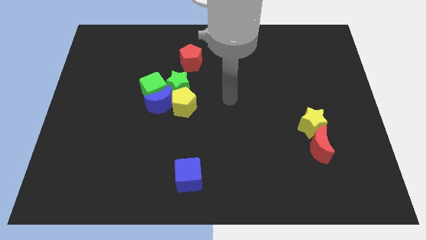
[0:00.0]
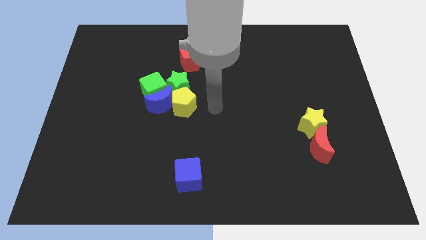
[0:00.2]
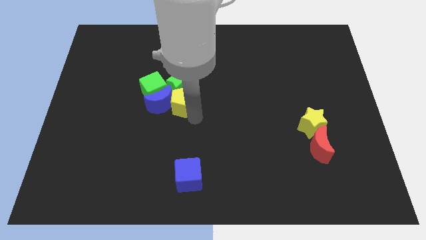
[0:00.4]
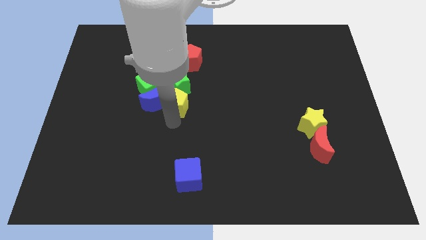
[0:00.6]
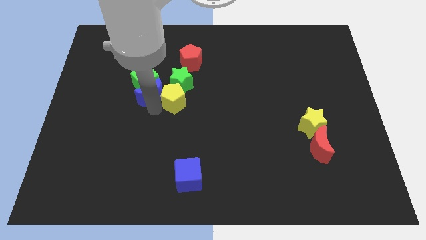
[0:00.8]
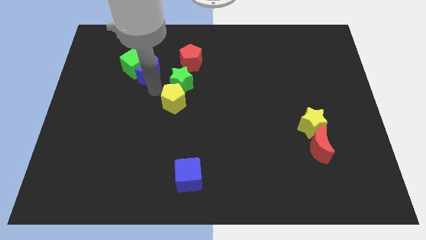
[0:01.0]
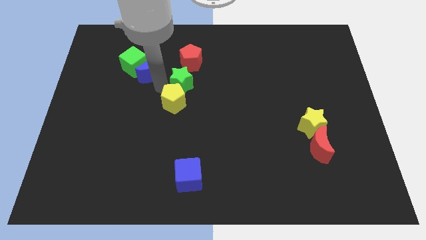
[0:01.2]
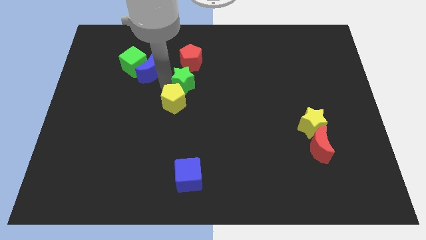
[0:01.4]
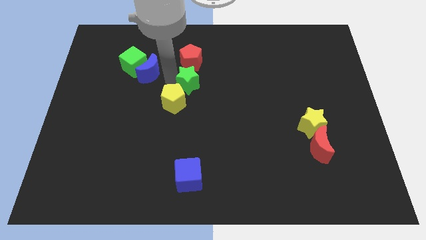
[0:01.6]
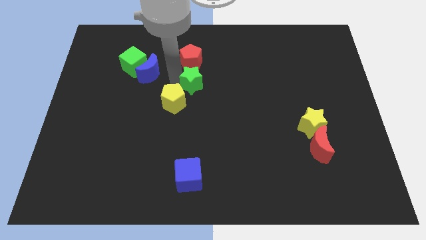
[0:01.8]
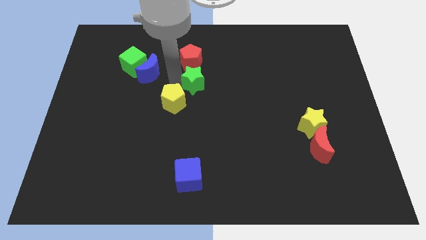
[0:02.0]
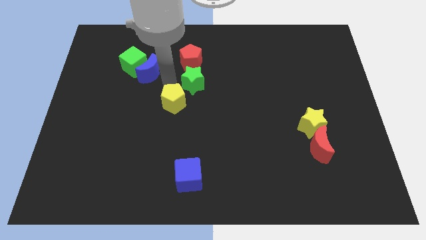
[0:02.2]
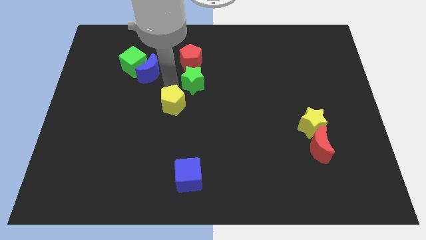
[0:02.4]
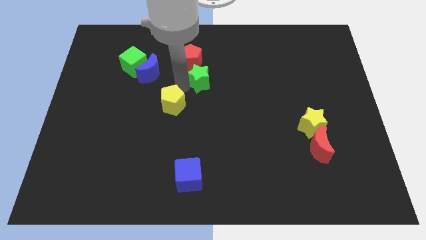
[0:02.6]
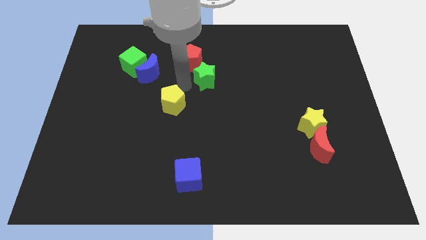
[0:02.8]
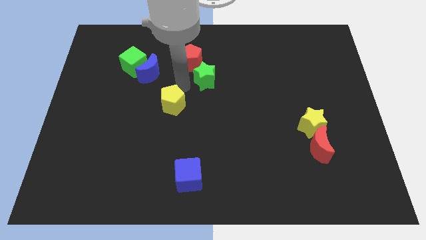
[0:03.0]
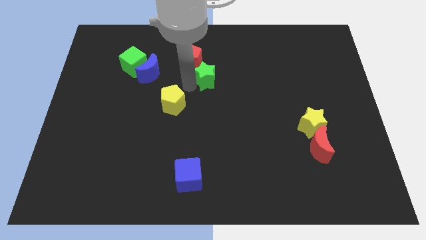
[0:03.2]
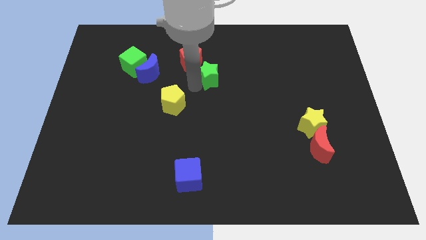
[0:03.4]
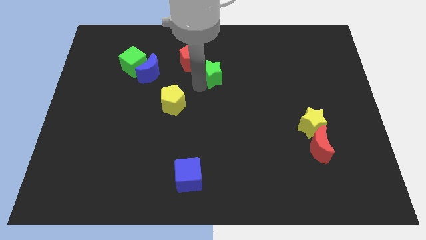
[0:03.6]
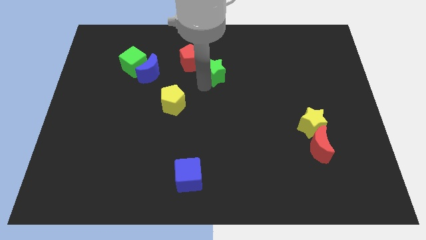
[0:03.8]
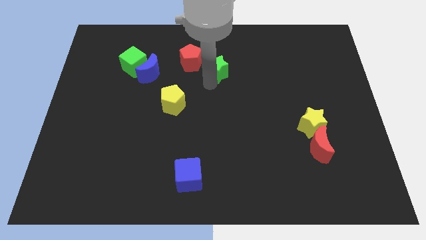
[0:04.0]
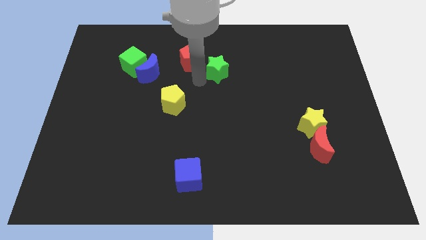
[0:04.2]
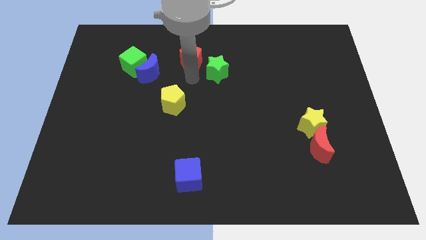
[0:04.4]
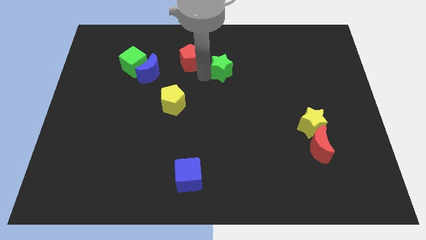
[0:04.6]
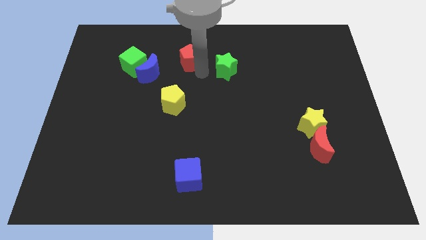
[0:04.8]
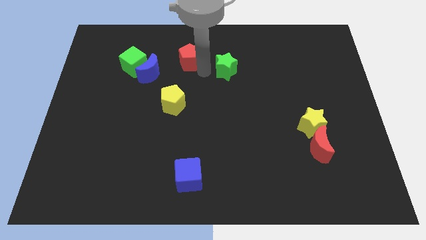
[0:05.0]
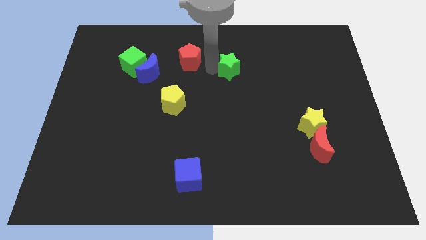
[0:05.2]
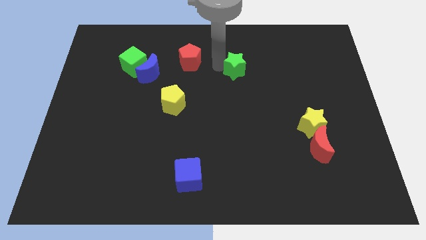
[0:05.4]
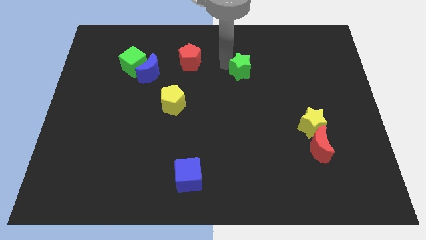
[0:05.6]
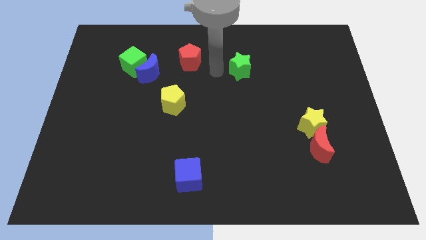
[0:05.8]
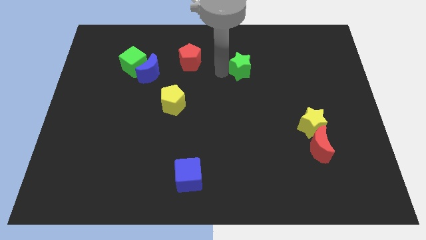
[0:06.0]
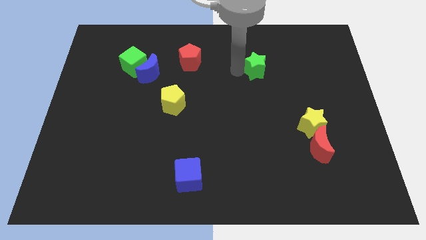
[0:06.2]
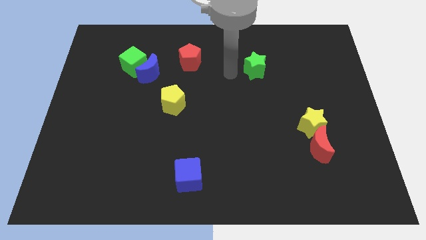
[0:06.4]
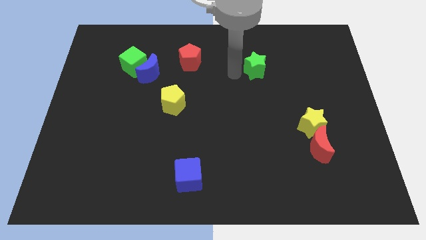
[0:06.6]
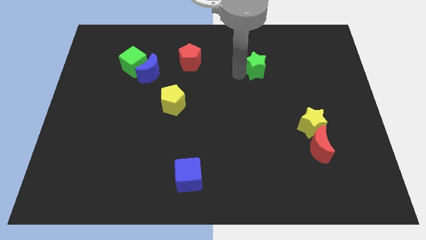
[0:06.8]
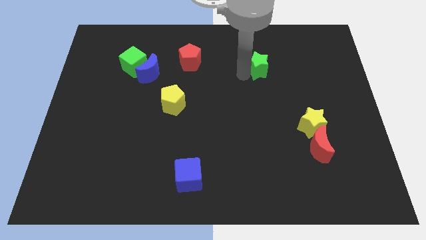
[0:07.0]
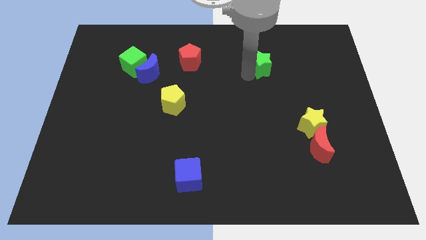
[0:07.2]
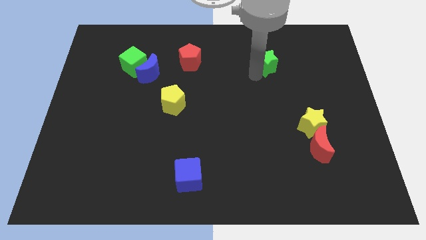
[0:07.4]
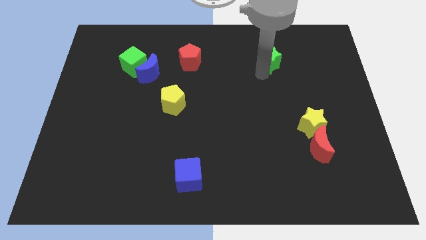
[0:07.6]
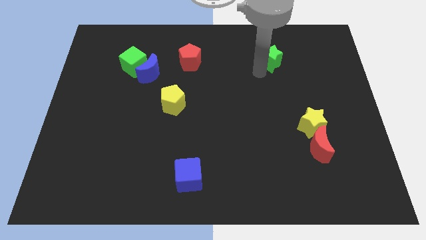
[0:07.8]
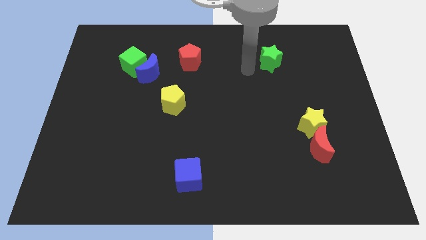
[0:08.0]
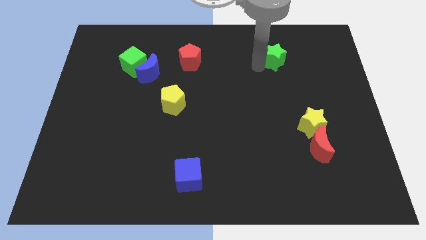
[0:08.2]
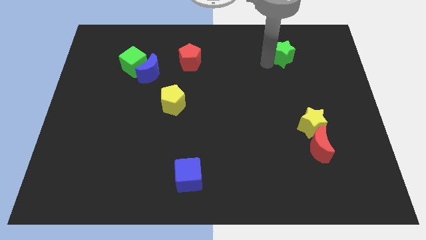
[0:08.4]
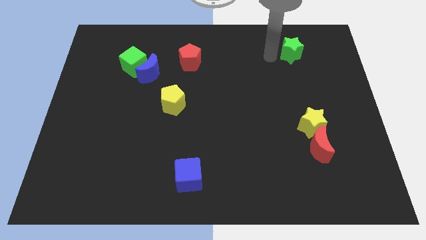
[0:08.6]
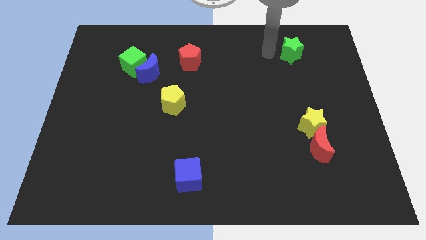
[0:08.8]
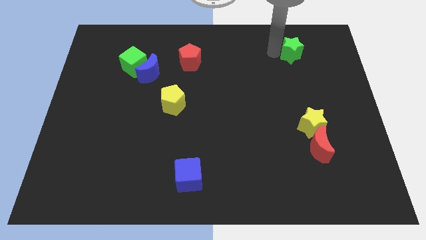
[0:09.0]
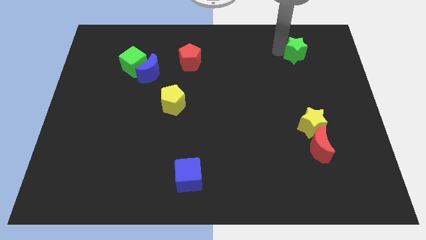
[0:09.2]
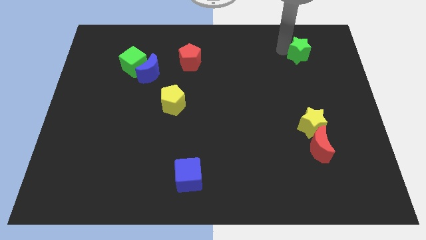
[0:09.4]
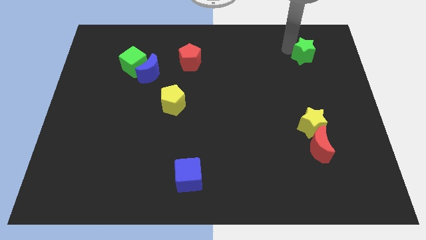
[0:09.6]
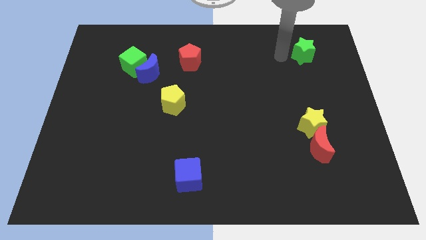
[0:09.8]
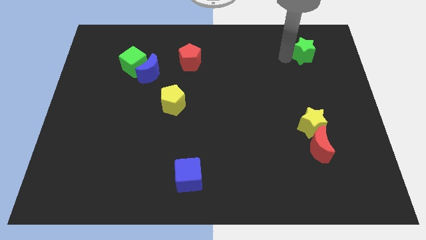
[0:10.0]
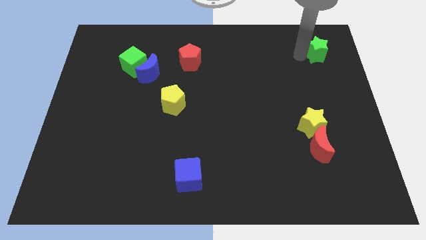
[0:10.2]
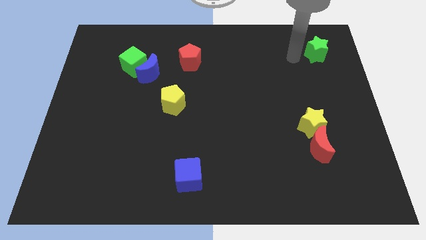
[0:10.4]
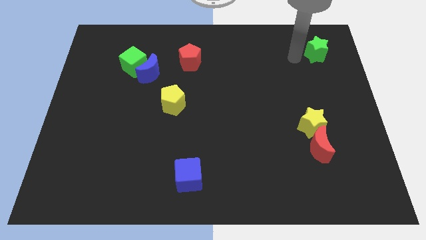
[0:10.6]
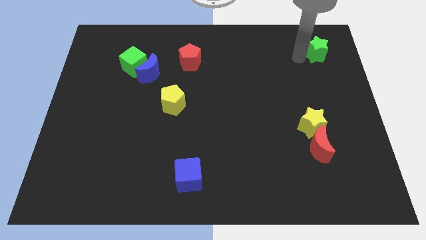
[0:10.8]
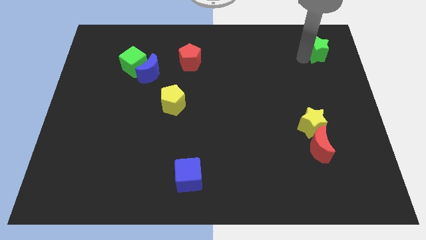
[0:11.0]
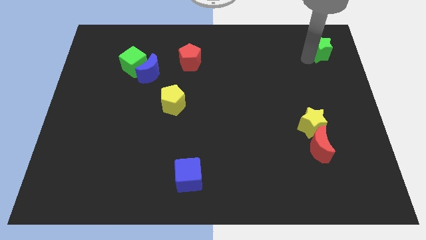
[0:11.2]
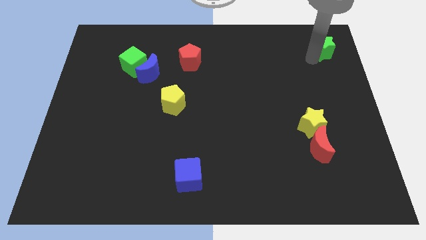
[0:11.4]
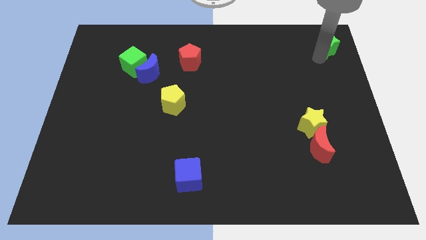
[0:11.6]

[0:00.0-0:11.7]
slide the green star to the top right

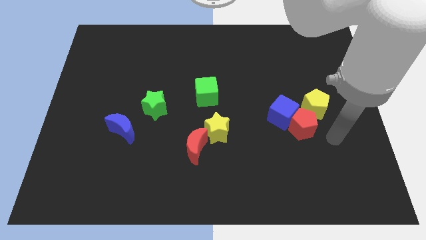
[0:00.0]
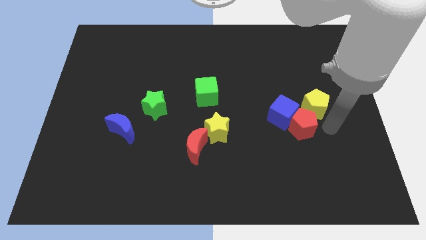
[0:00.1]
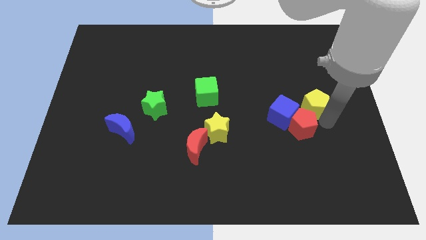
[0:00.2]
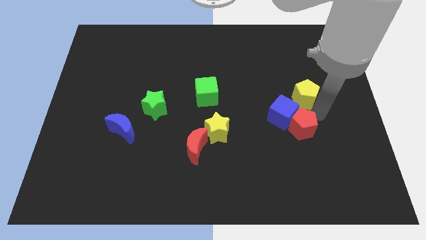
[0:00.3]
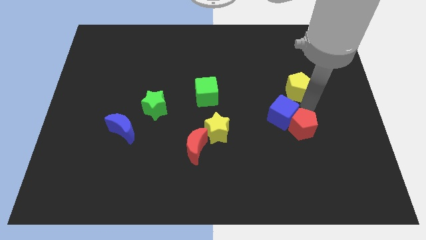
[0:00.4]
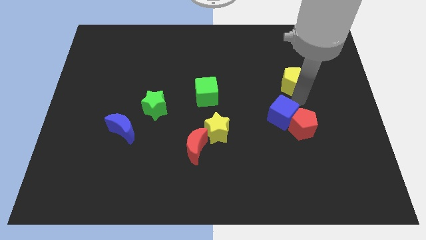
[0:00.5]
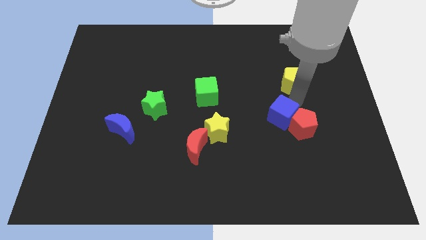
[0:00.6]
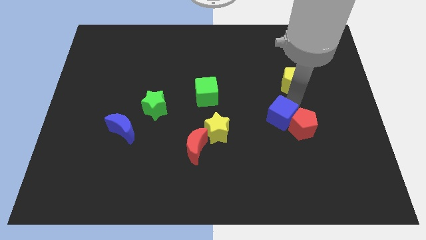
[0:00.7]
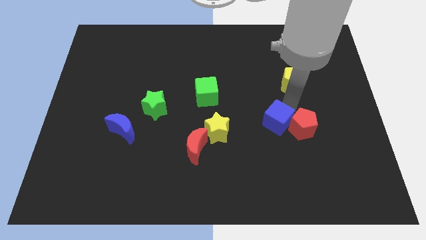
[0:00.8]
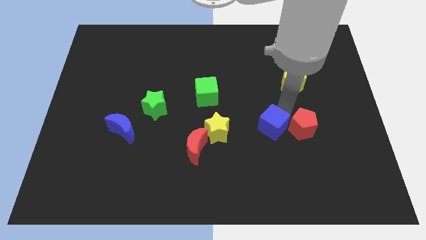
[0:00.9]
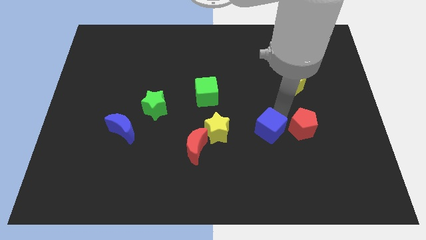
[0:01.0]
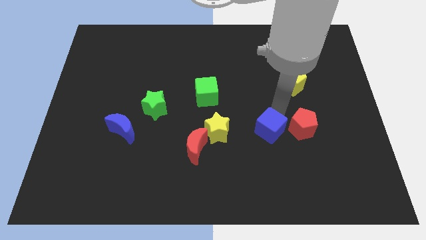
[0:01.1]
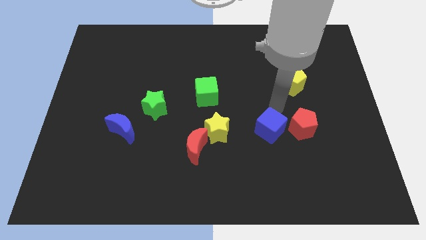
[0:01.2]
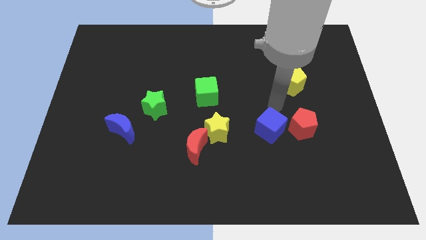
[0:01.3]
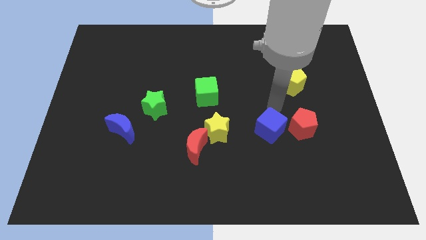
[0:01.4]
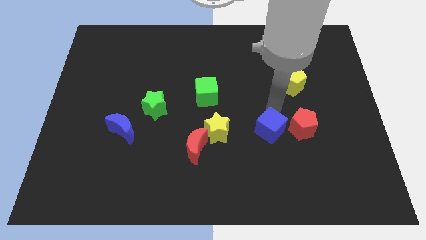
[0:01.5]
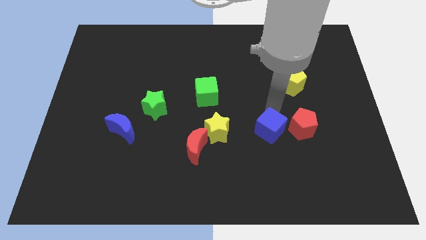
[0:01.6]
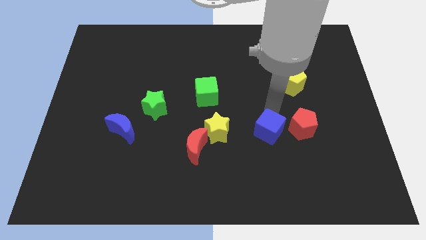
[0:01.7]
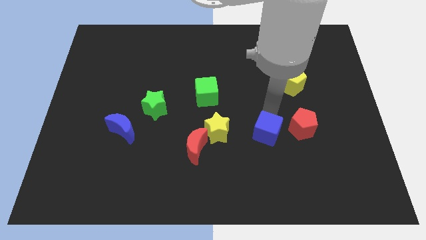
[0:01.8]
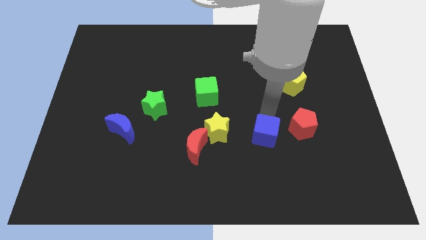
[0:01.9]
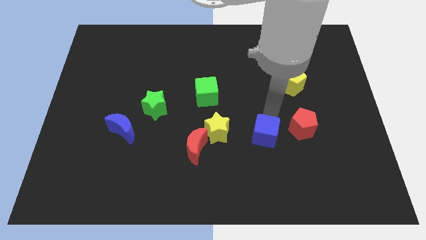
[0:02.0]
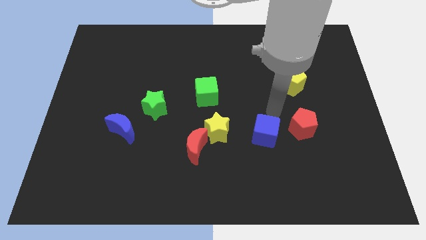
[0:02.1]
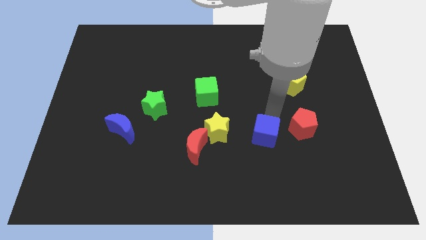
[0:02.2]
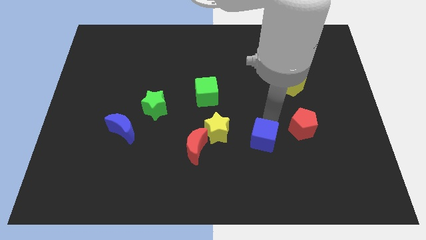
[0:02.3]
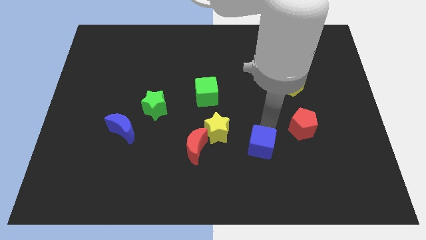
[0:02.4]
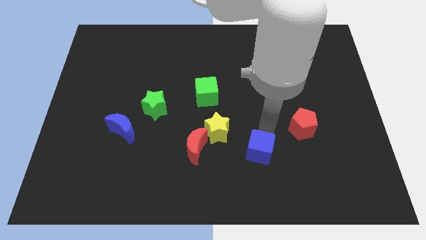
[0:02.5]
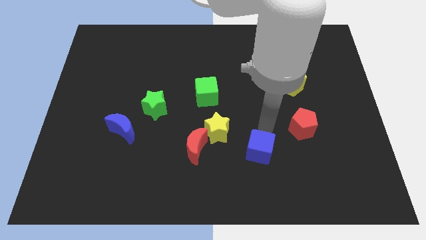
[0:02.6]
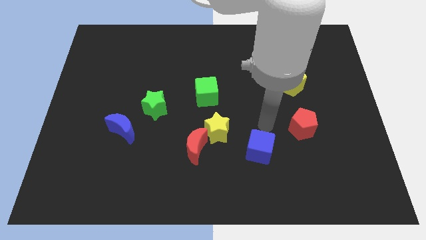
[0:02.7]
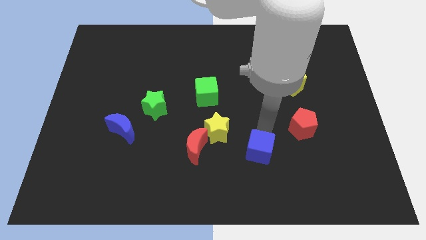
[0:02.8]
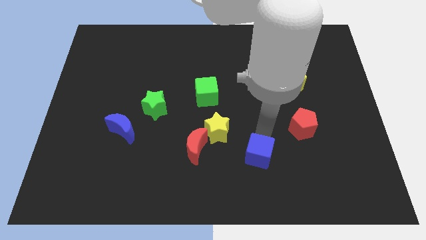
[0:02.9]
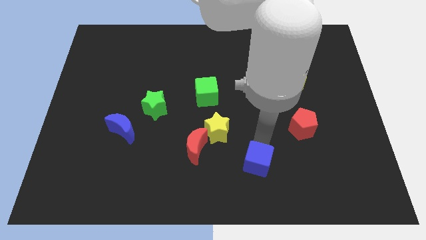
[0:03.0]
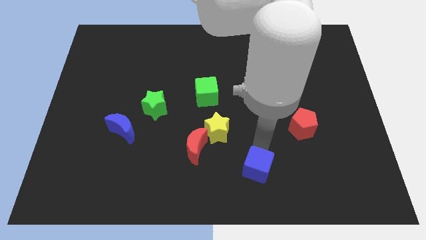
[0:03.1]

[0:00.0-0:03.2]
slide the blue cube to the bottom side
